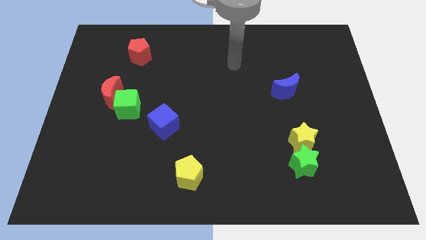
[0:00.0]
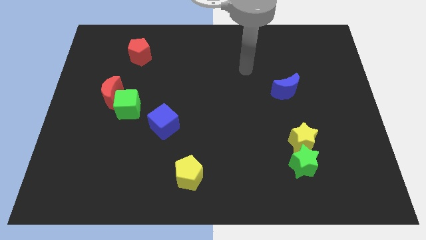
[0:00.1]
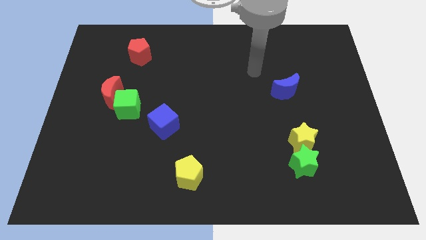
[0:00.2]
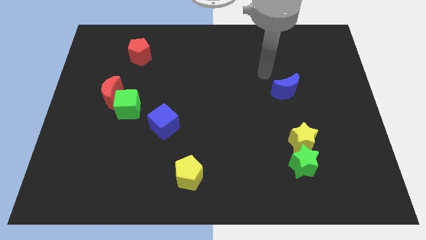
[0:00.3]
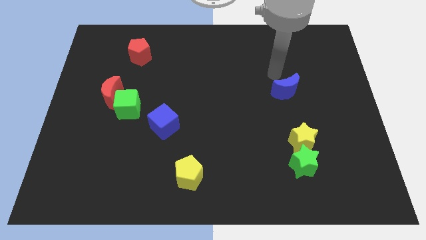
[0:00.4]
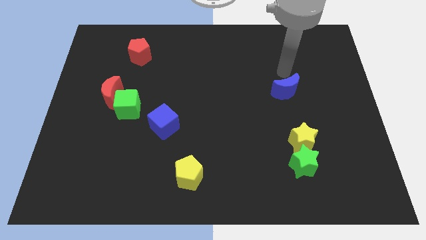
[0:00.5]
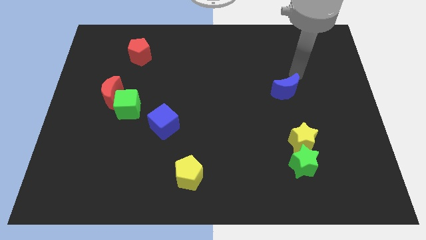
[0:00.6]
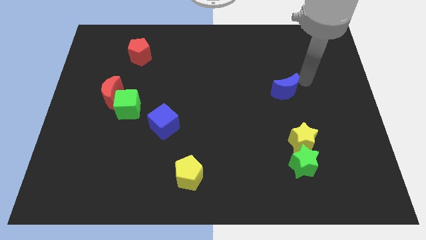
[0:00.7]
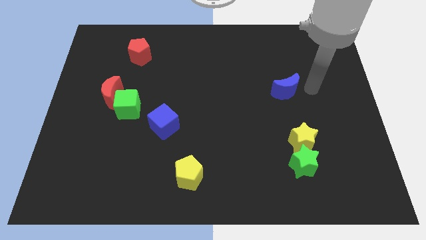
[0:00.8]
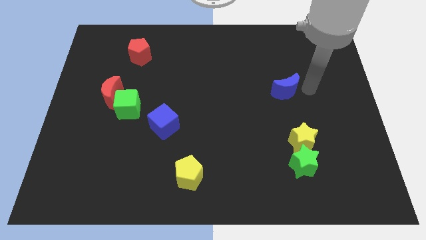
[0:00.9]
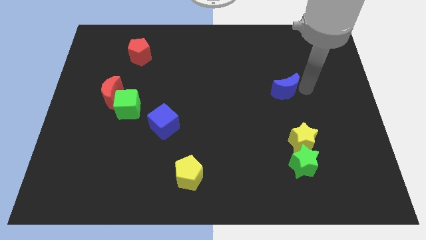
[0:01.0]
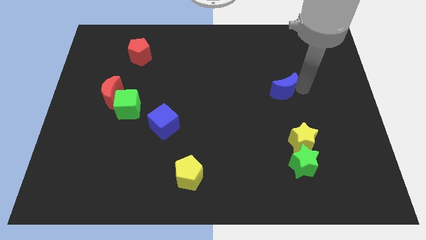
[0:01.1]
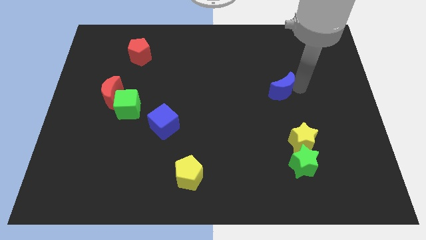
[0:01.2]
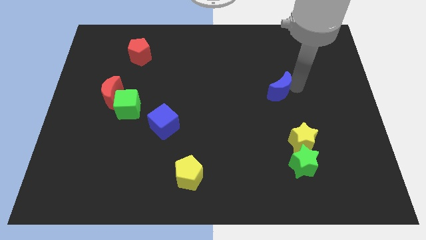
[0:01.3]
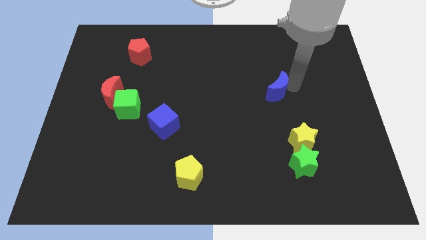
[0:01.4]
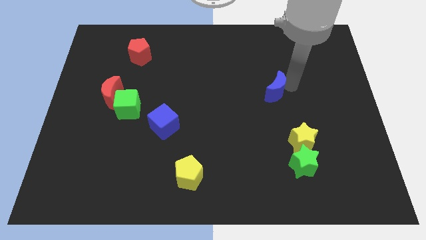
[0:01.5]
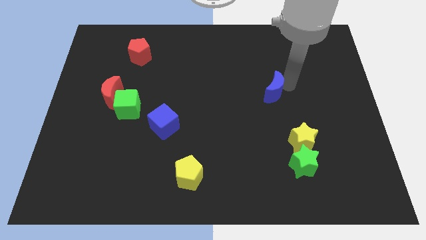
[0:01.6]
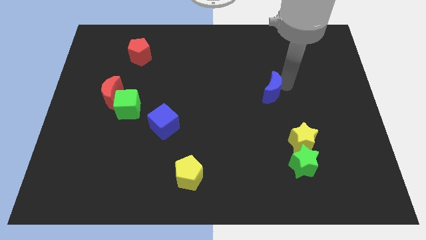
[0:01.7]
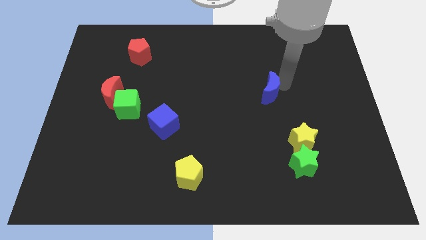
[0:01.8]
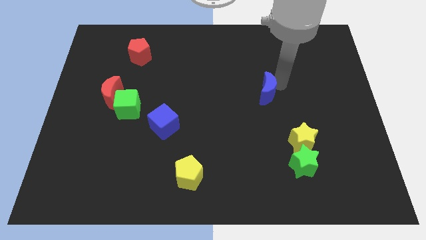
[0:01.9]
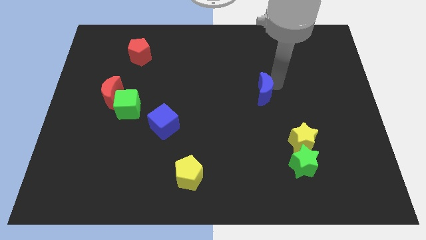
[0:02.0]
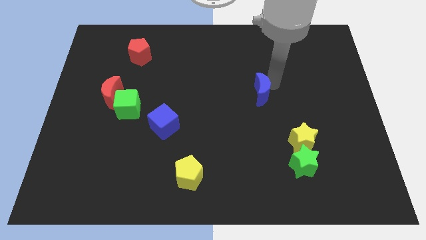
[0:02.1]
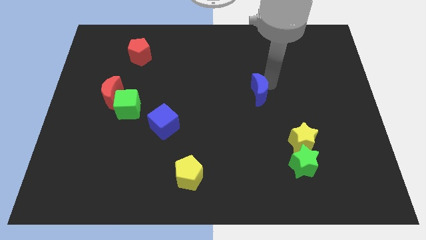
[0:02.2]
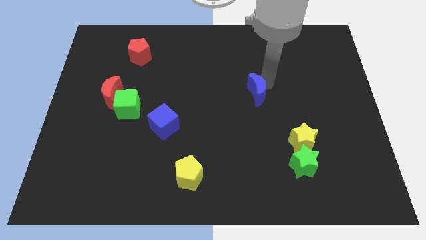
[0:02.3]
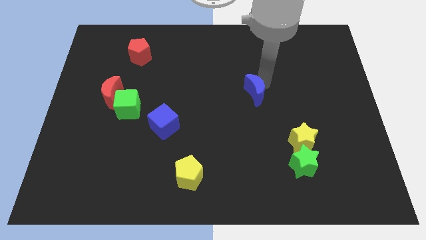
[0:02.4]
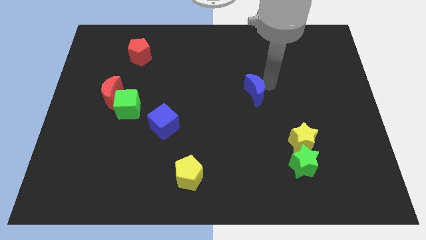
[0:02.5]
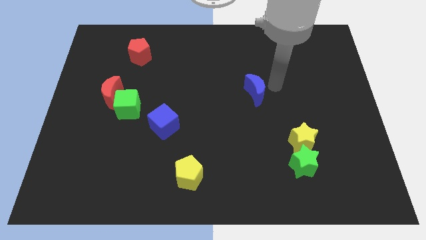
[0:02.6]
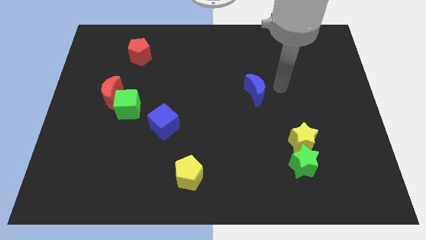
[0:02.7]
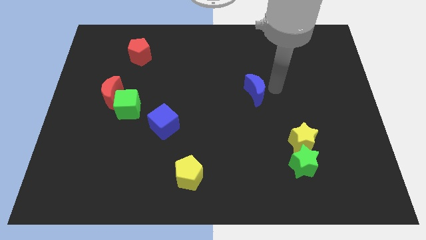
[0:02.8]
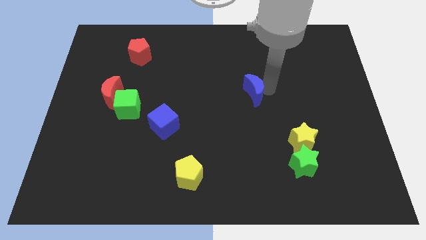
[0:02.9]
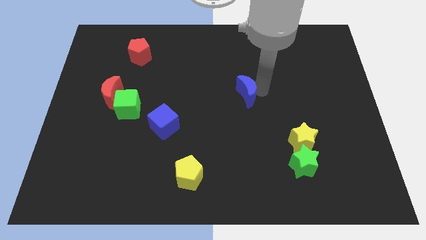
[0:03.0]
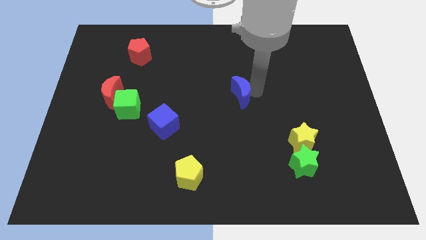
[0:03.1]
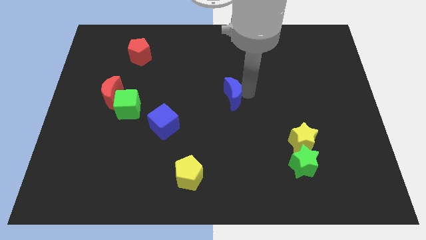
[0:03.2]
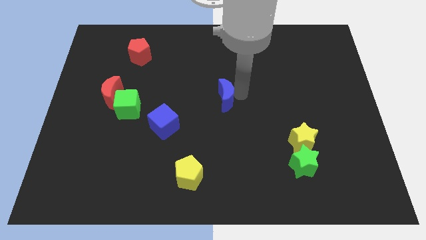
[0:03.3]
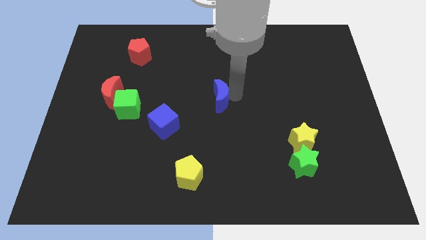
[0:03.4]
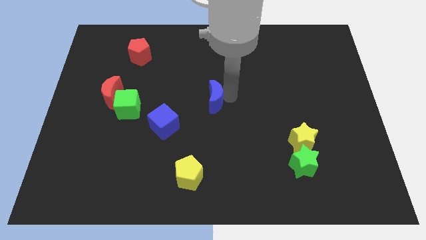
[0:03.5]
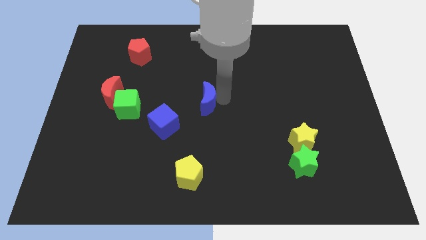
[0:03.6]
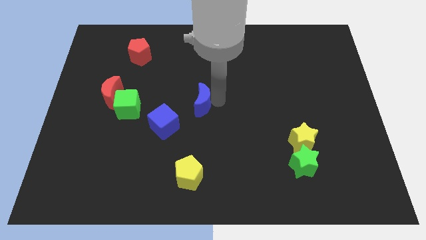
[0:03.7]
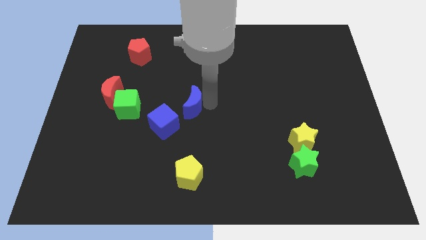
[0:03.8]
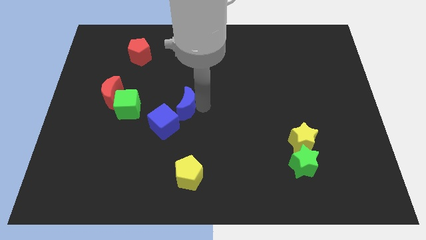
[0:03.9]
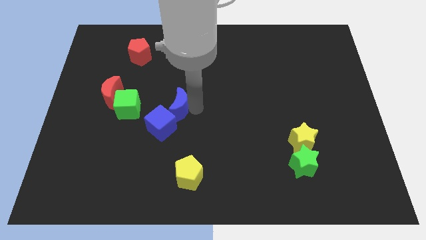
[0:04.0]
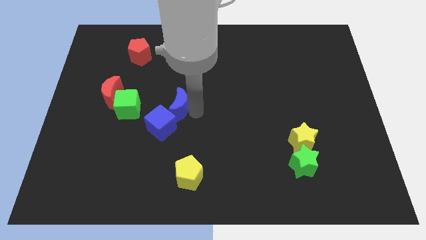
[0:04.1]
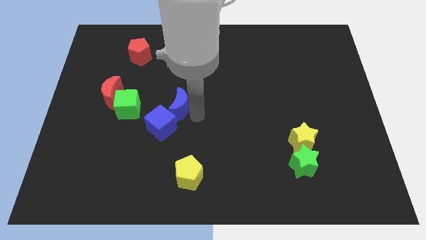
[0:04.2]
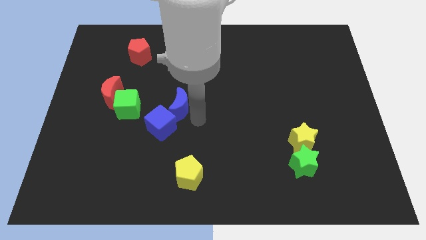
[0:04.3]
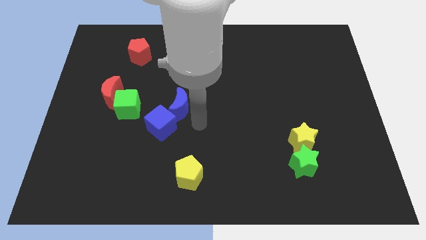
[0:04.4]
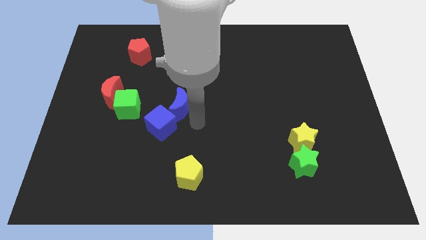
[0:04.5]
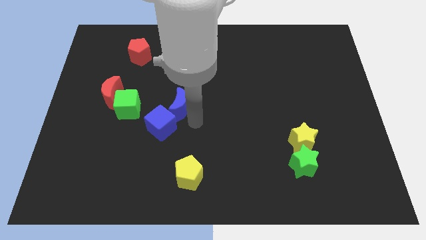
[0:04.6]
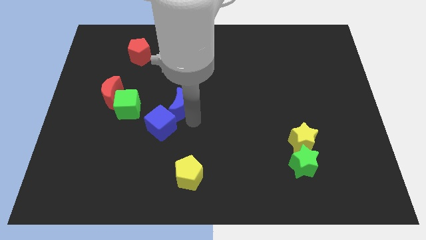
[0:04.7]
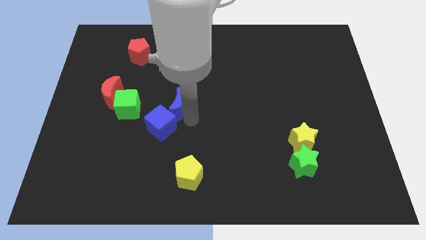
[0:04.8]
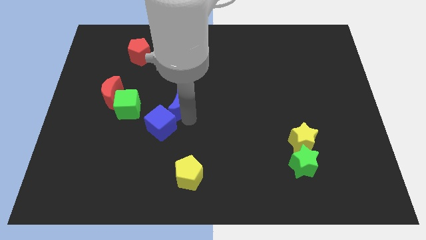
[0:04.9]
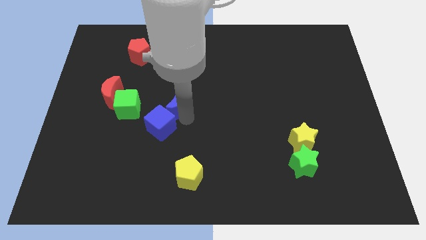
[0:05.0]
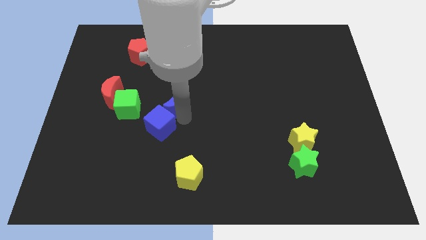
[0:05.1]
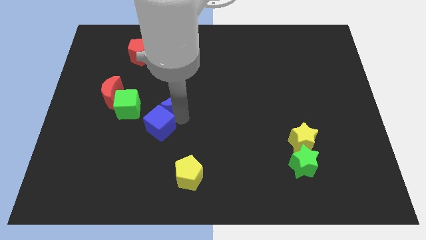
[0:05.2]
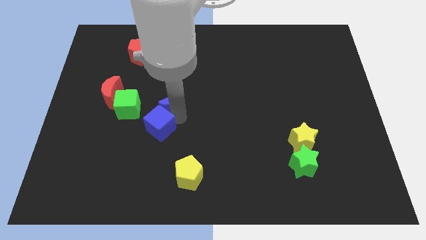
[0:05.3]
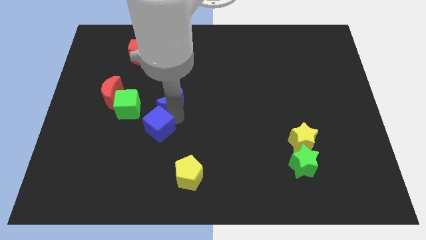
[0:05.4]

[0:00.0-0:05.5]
push the blue moon right of the red moon

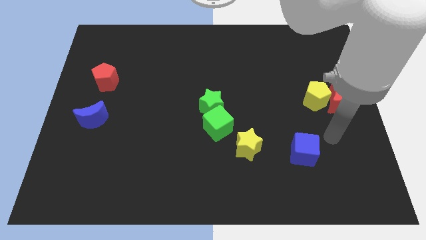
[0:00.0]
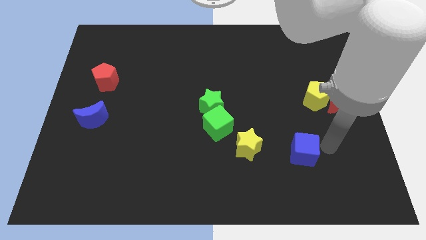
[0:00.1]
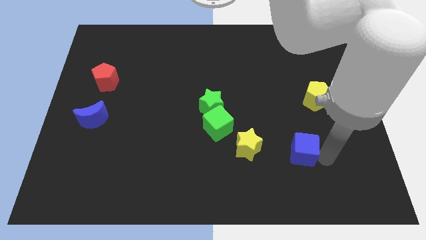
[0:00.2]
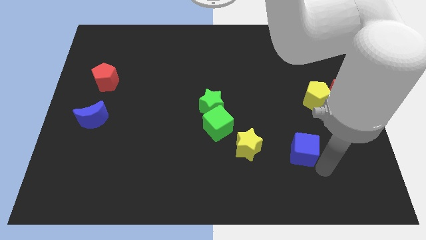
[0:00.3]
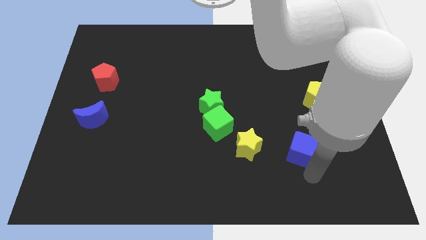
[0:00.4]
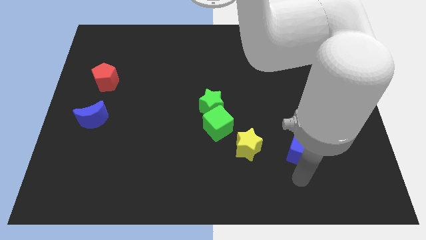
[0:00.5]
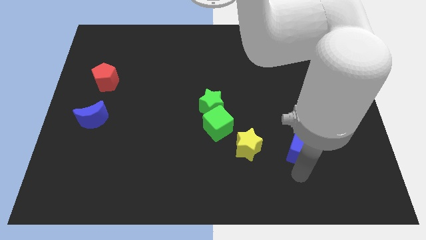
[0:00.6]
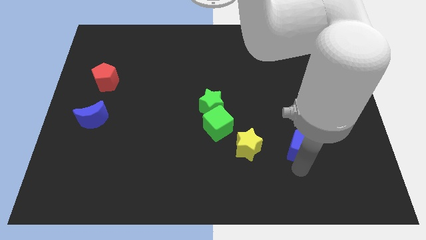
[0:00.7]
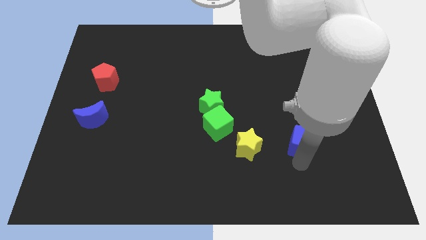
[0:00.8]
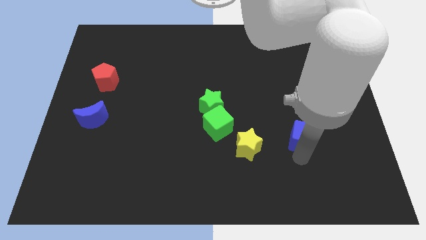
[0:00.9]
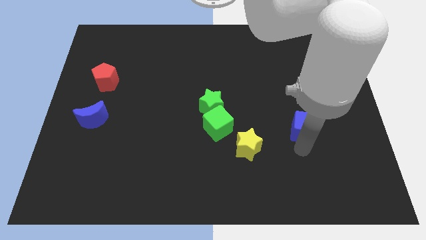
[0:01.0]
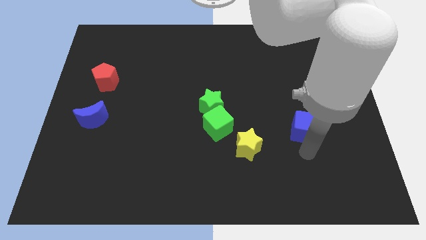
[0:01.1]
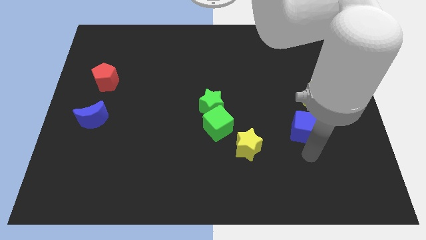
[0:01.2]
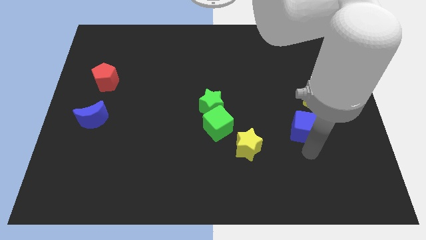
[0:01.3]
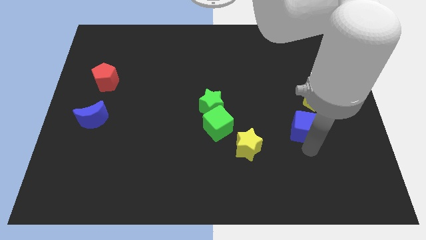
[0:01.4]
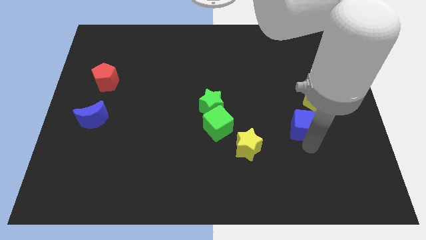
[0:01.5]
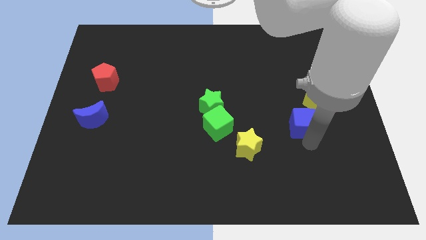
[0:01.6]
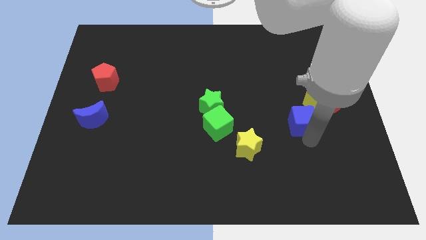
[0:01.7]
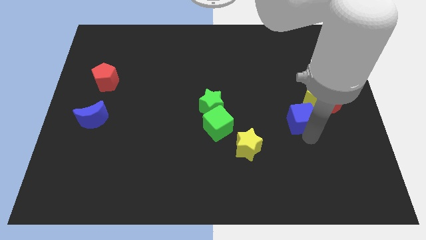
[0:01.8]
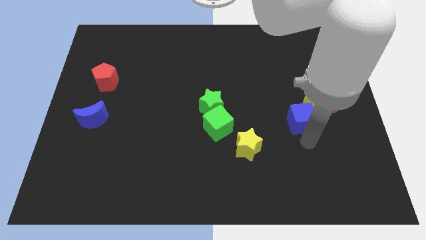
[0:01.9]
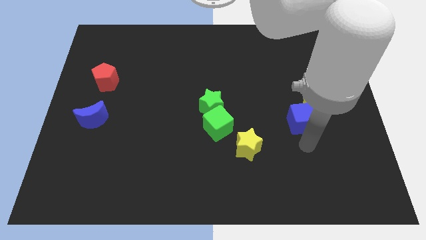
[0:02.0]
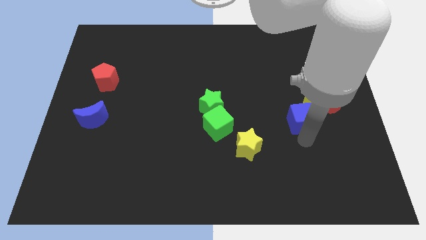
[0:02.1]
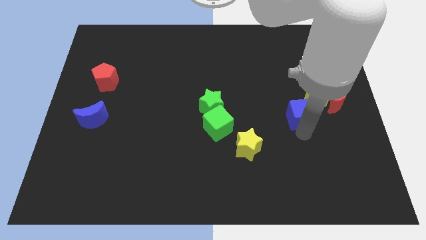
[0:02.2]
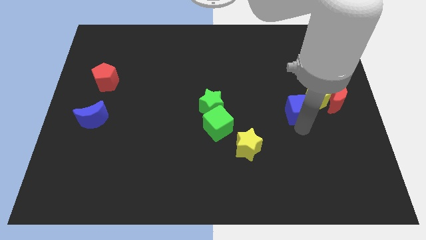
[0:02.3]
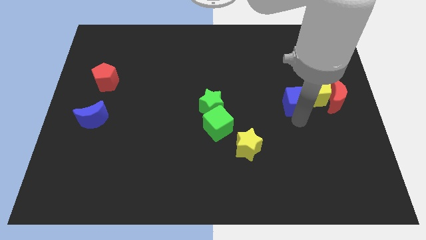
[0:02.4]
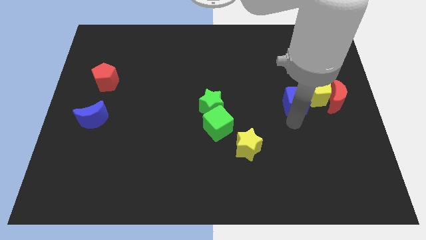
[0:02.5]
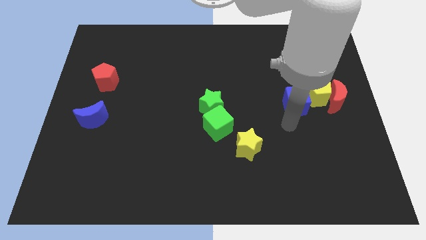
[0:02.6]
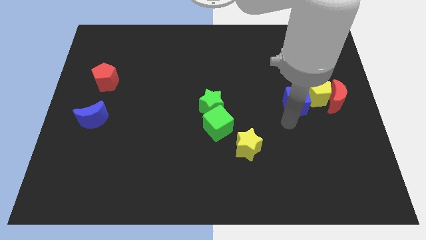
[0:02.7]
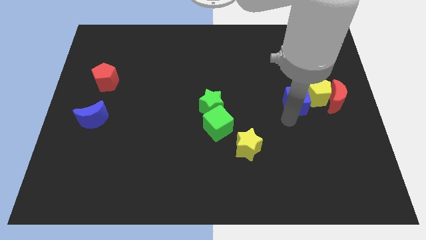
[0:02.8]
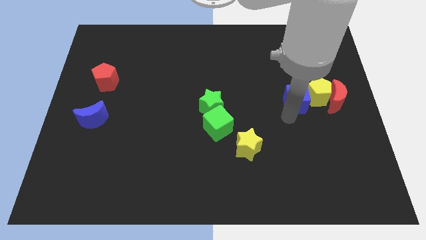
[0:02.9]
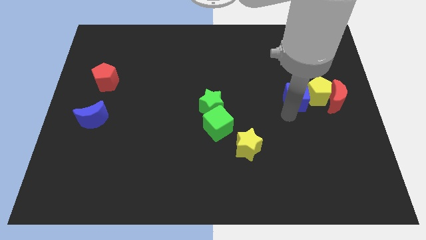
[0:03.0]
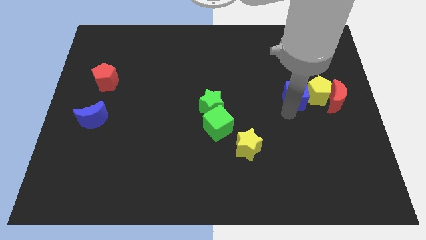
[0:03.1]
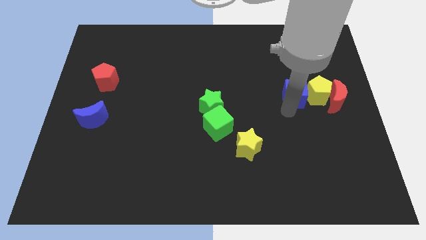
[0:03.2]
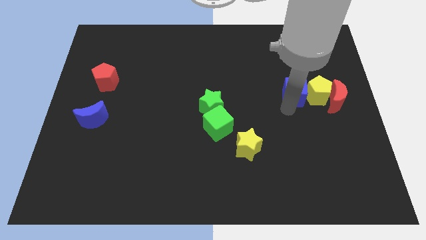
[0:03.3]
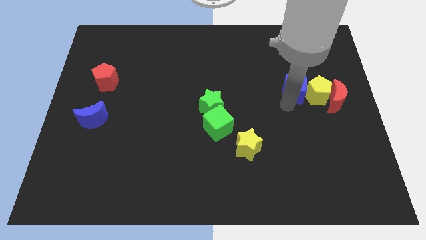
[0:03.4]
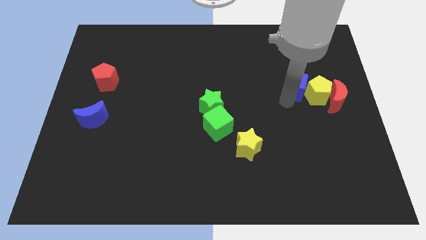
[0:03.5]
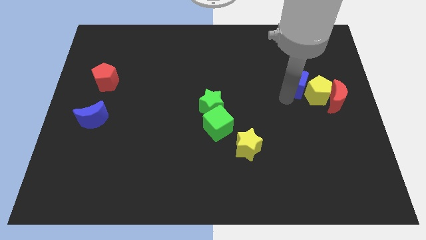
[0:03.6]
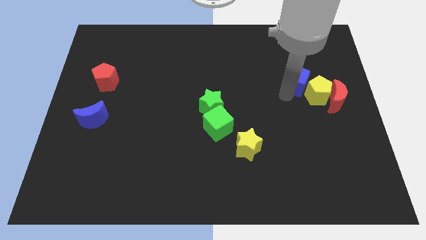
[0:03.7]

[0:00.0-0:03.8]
move the blue cube to the top side of the yellow pentagon
